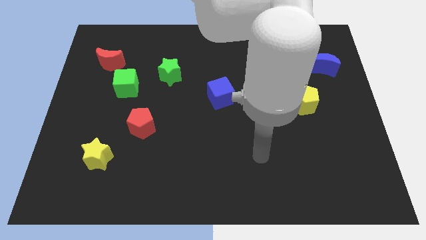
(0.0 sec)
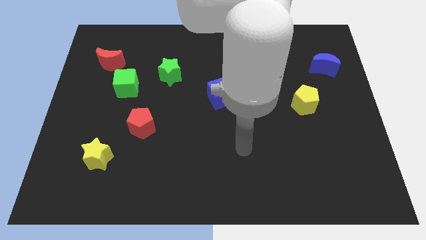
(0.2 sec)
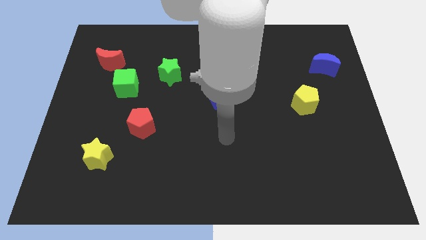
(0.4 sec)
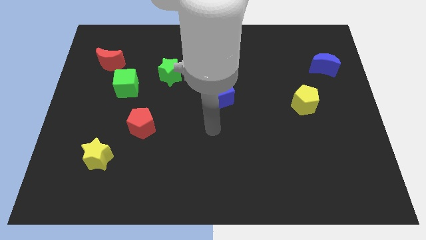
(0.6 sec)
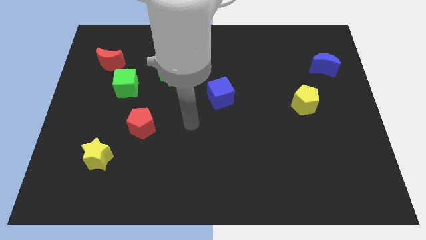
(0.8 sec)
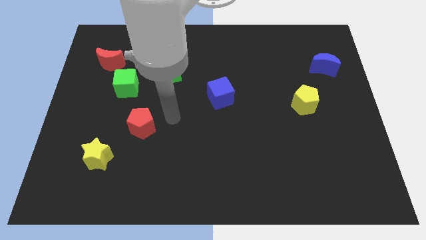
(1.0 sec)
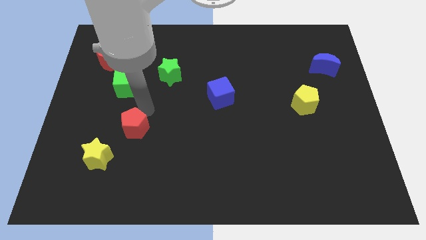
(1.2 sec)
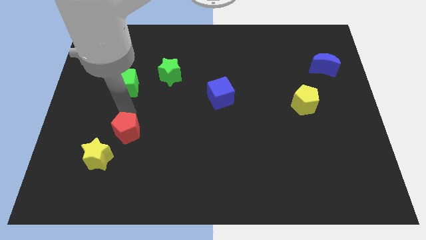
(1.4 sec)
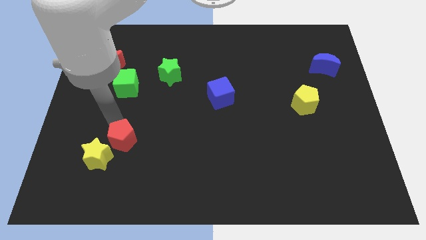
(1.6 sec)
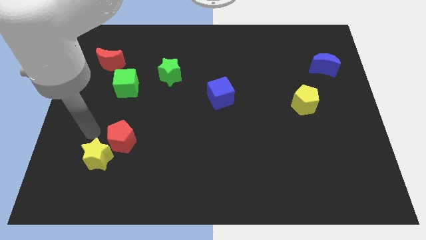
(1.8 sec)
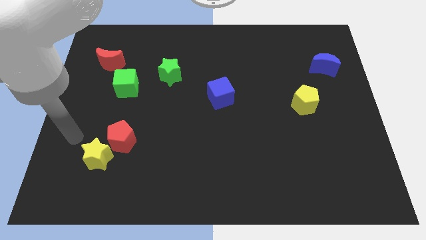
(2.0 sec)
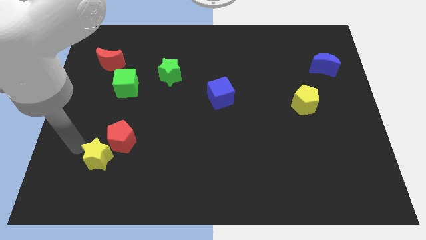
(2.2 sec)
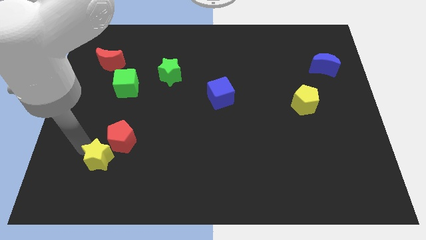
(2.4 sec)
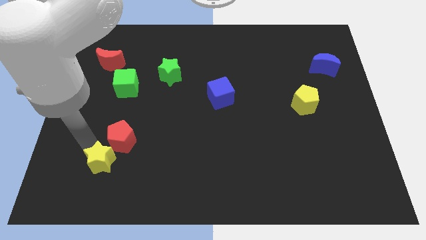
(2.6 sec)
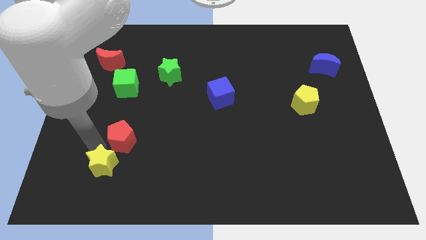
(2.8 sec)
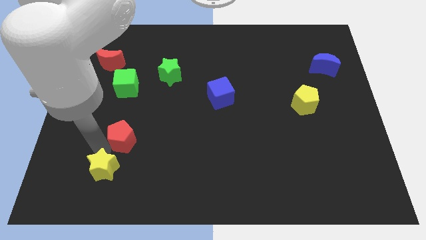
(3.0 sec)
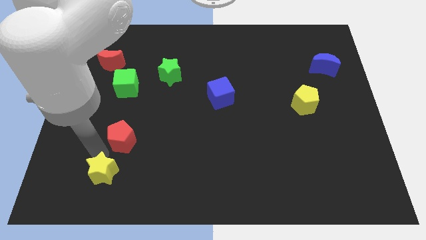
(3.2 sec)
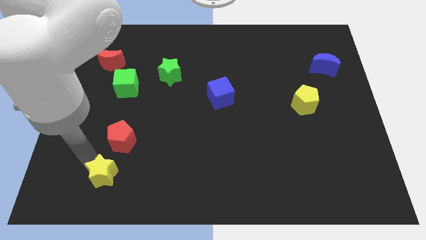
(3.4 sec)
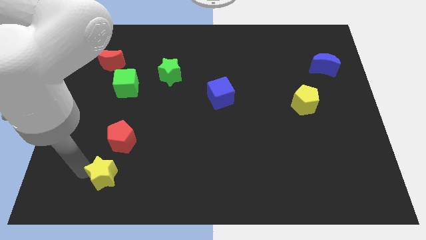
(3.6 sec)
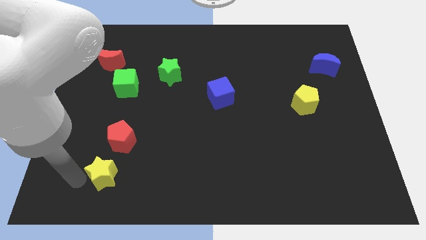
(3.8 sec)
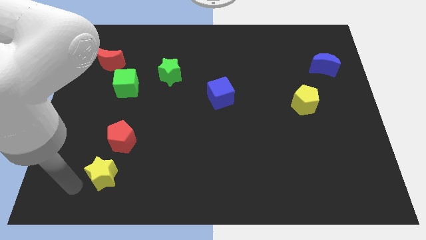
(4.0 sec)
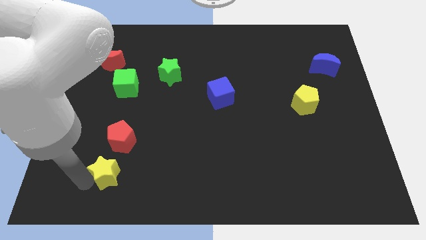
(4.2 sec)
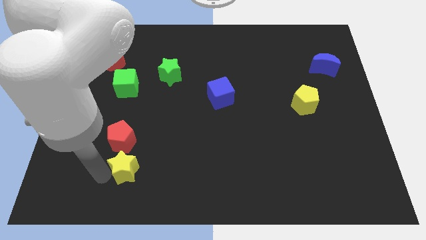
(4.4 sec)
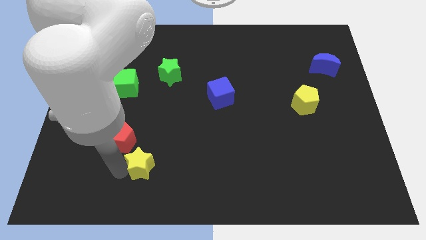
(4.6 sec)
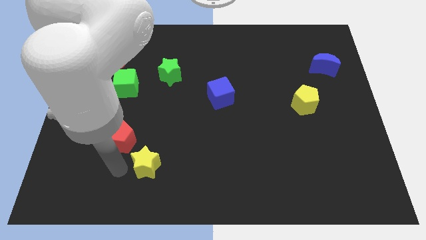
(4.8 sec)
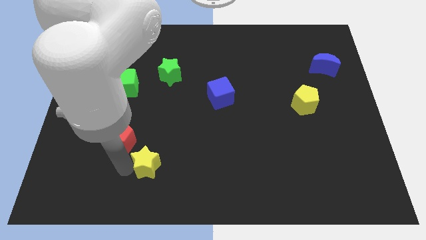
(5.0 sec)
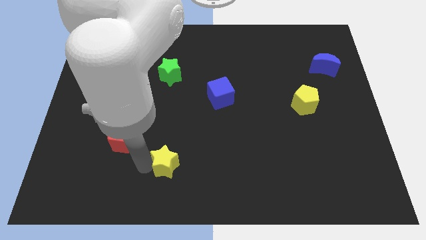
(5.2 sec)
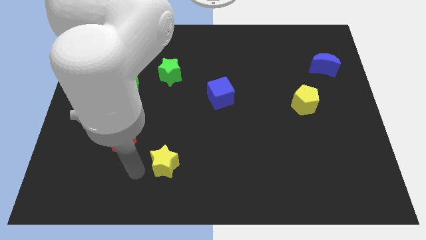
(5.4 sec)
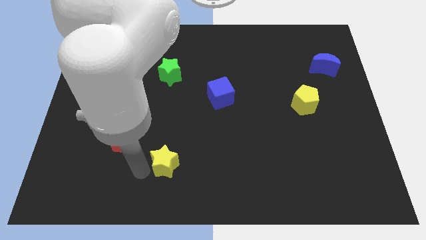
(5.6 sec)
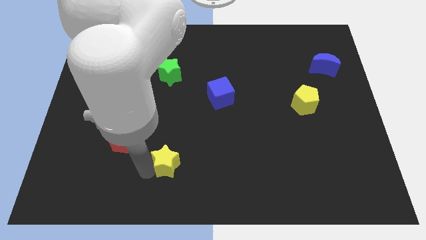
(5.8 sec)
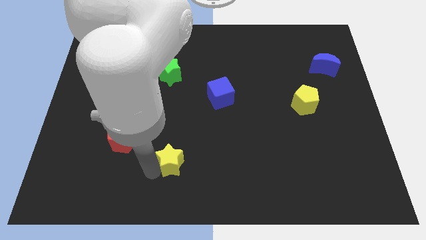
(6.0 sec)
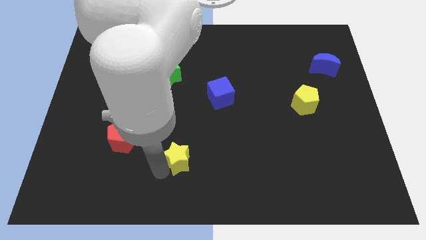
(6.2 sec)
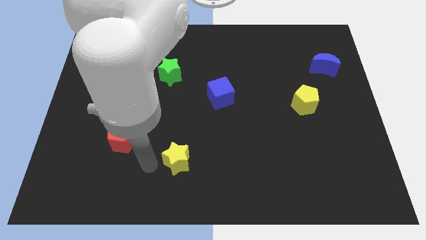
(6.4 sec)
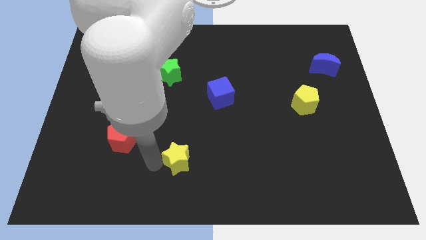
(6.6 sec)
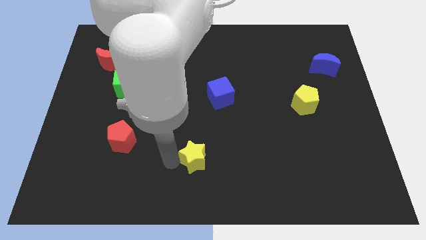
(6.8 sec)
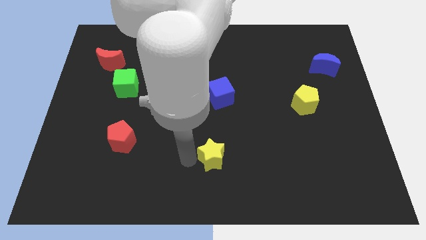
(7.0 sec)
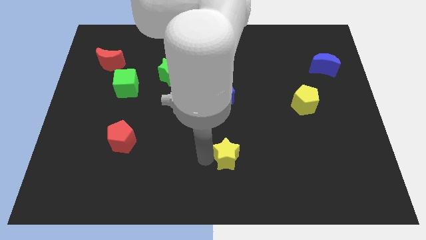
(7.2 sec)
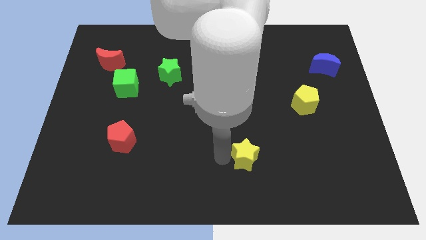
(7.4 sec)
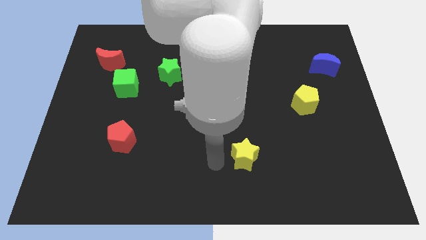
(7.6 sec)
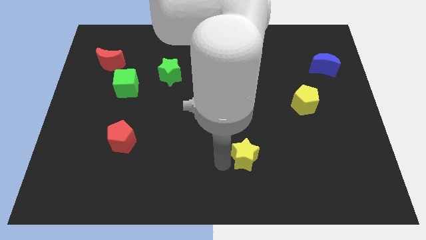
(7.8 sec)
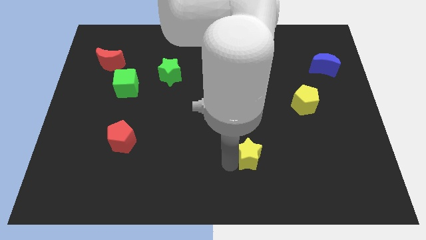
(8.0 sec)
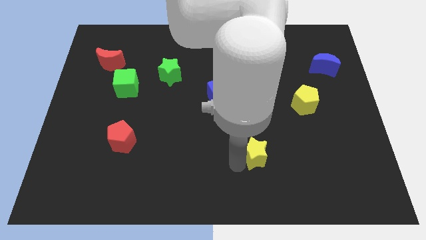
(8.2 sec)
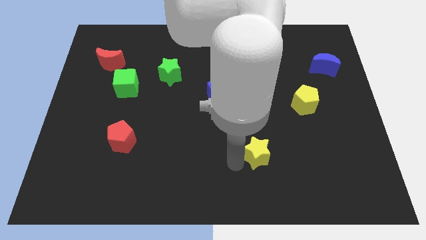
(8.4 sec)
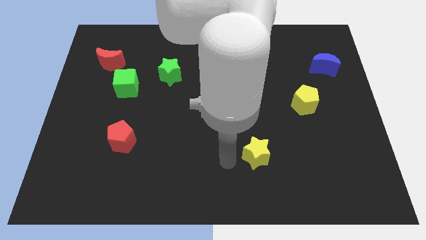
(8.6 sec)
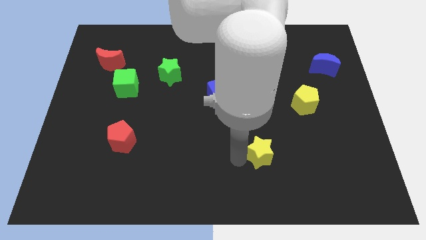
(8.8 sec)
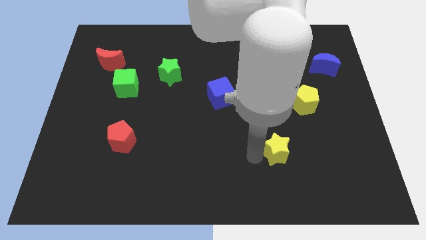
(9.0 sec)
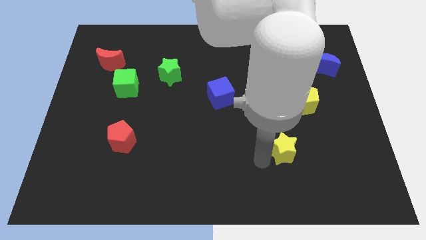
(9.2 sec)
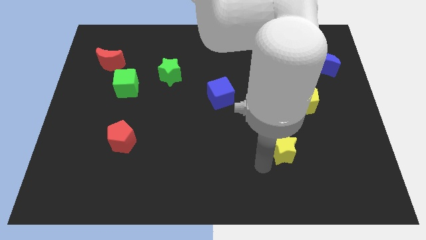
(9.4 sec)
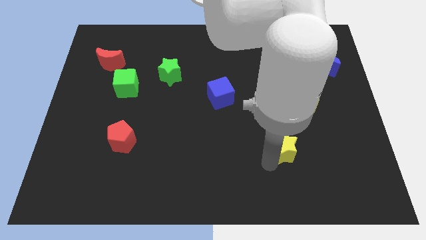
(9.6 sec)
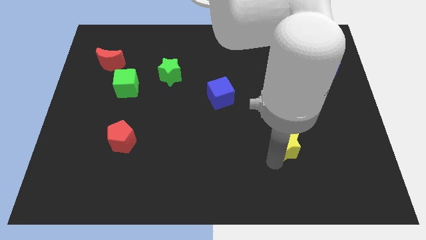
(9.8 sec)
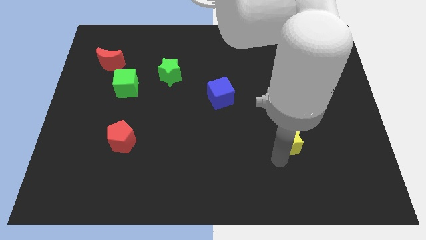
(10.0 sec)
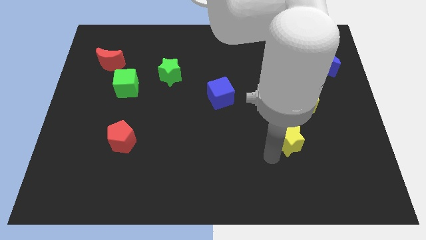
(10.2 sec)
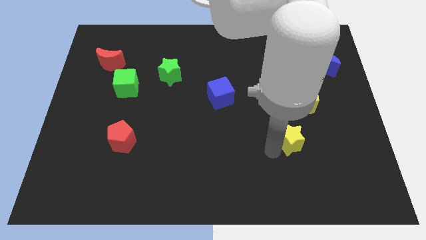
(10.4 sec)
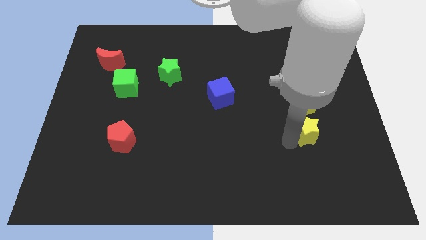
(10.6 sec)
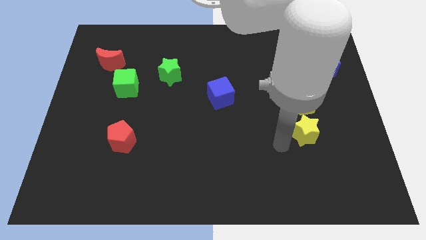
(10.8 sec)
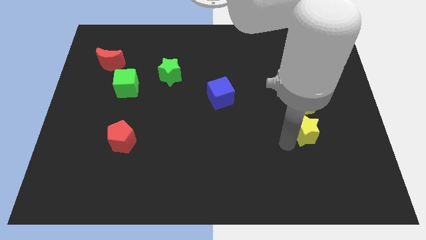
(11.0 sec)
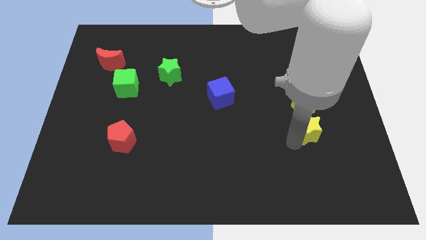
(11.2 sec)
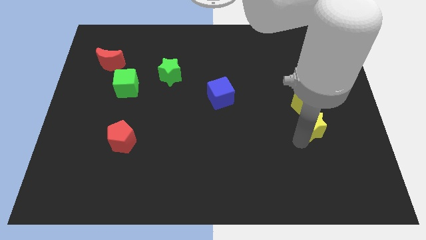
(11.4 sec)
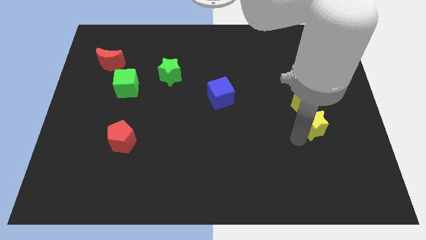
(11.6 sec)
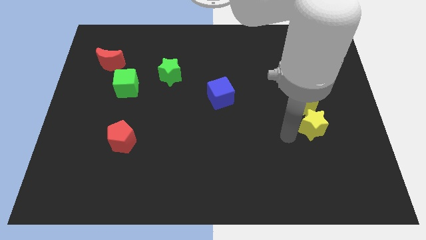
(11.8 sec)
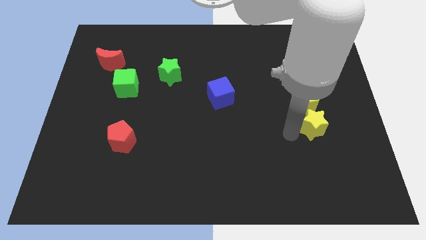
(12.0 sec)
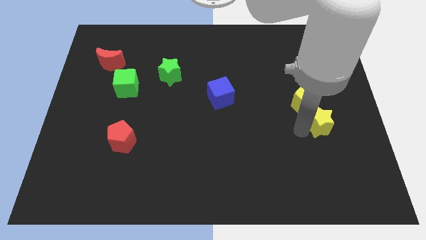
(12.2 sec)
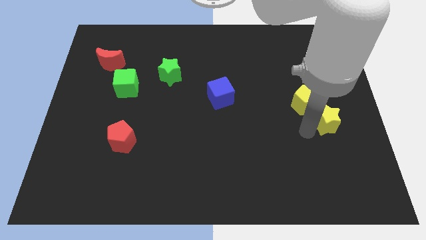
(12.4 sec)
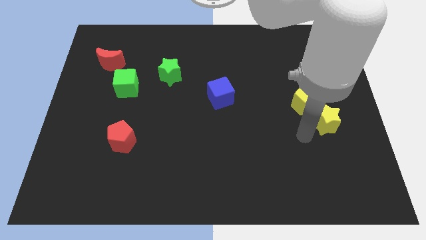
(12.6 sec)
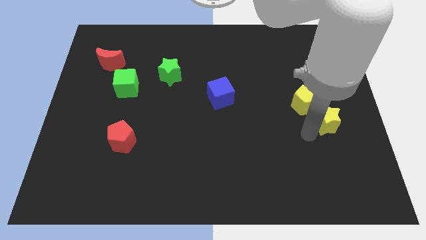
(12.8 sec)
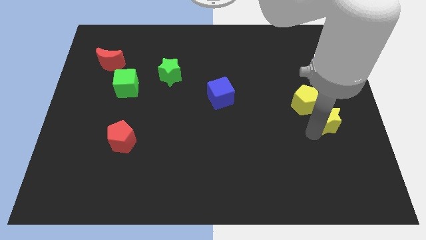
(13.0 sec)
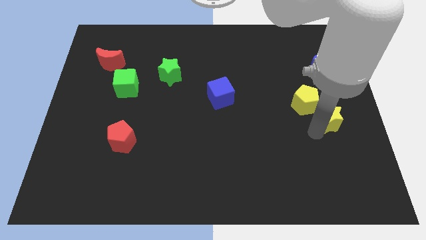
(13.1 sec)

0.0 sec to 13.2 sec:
slide the yellow star to the right side
